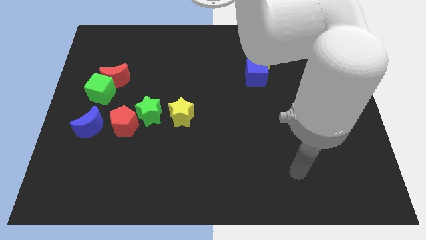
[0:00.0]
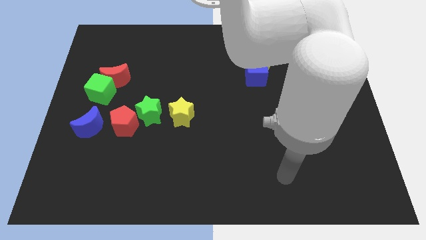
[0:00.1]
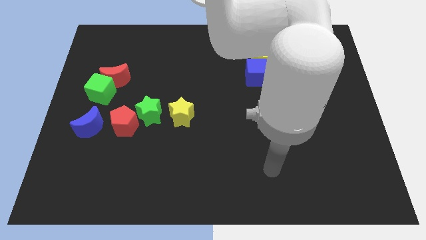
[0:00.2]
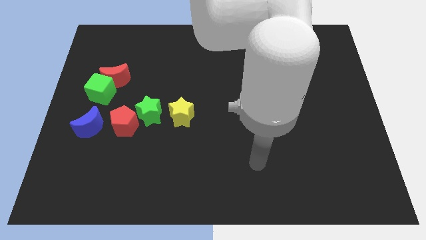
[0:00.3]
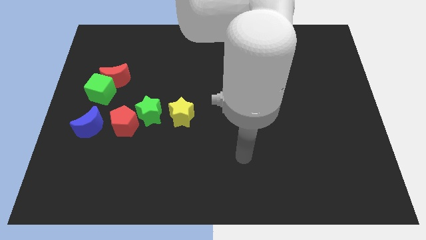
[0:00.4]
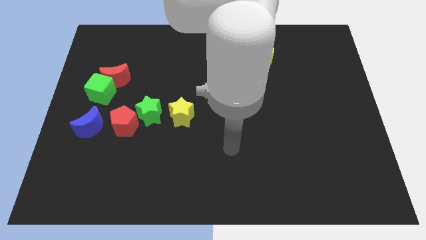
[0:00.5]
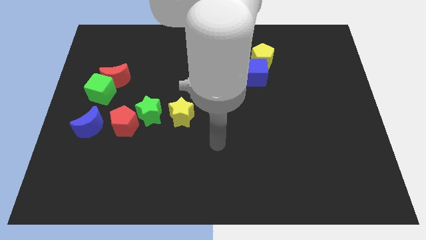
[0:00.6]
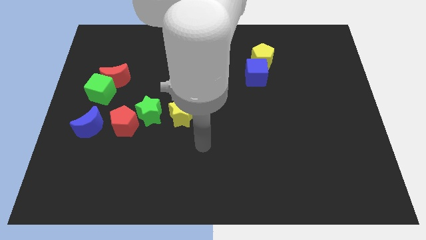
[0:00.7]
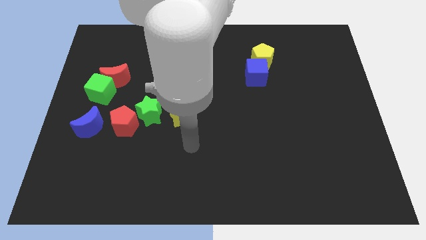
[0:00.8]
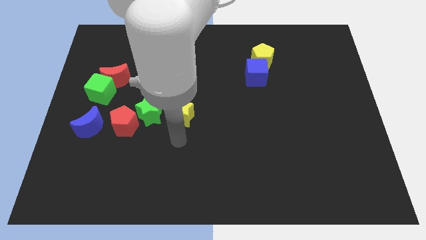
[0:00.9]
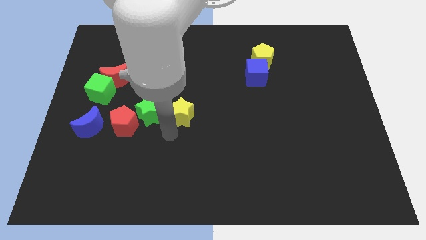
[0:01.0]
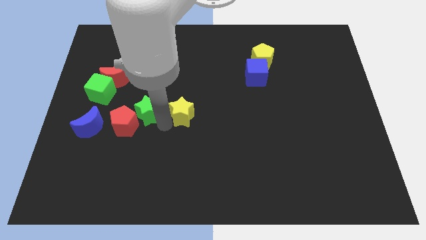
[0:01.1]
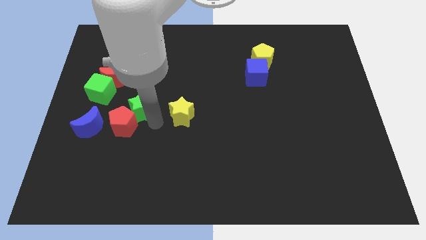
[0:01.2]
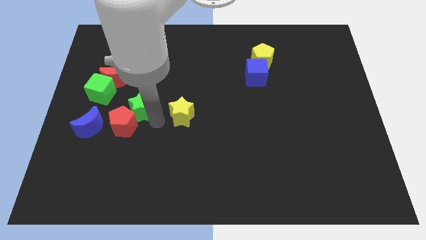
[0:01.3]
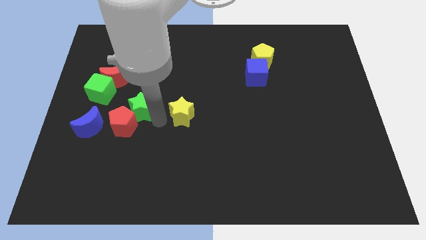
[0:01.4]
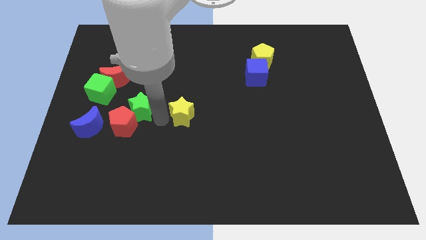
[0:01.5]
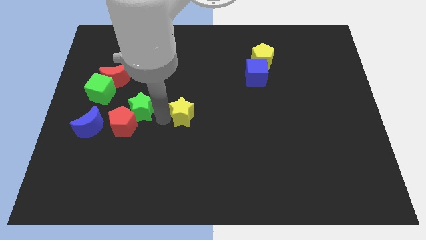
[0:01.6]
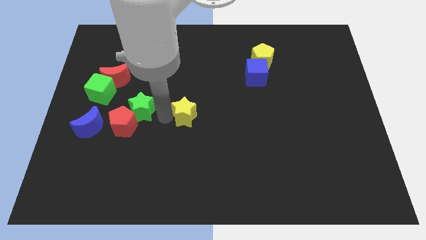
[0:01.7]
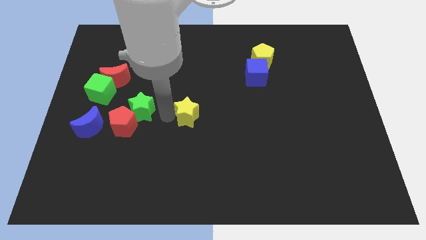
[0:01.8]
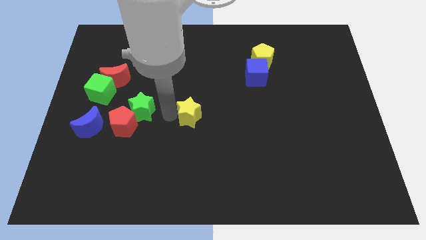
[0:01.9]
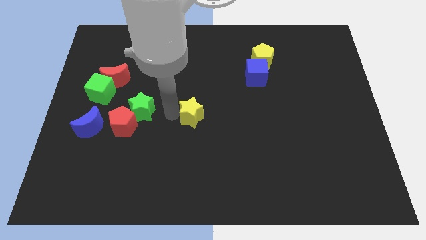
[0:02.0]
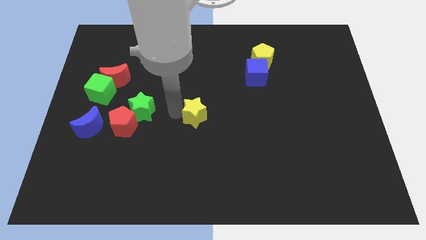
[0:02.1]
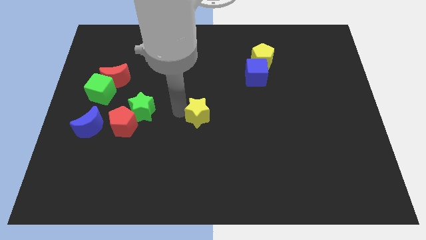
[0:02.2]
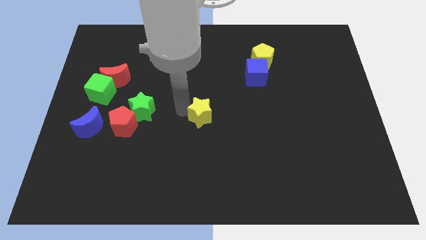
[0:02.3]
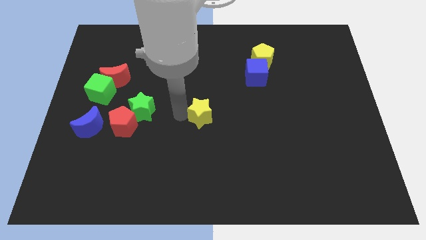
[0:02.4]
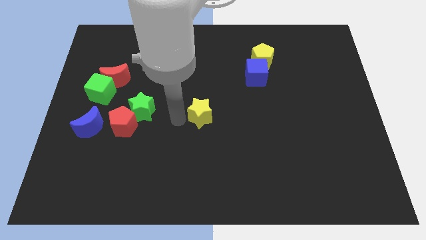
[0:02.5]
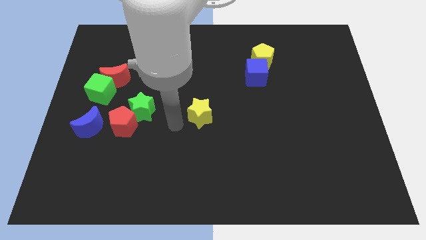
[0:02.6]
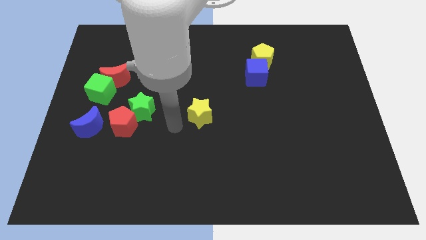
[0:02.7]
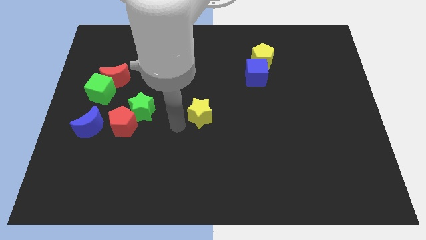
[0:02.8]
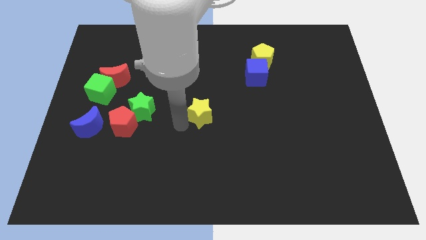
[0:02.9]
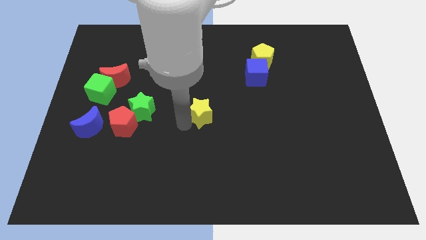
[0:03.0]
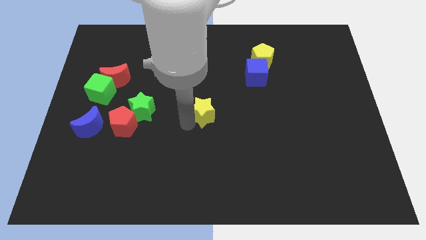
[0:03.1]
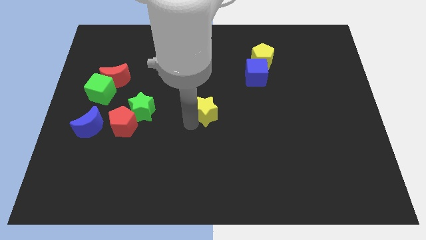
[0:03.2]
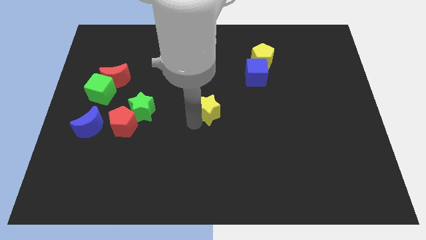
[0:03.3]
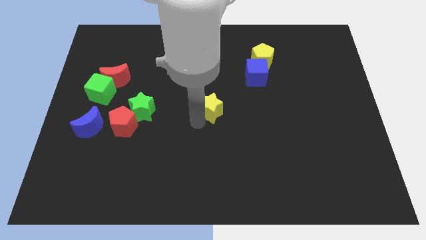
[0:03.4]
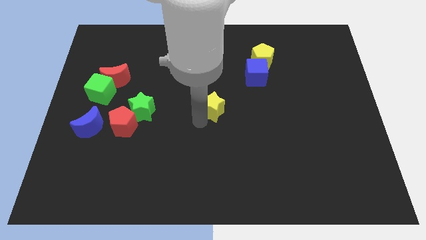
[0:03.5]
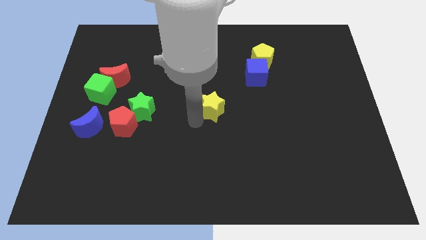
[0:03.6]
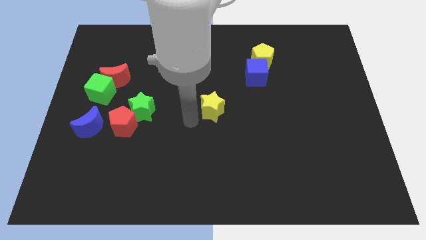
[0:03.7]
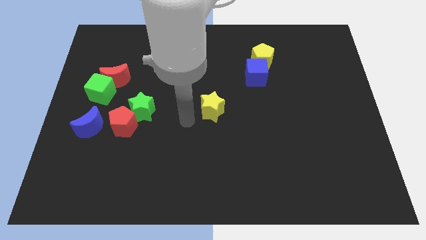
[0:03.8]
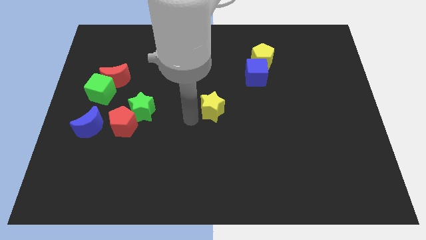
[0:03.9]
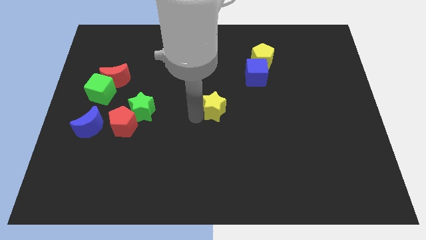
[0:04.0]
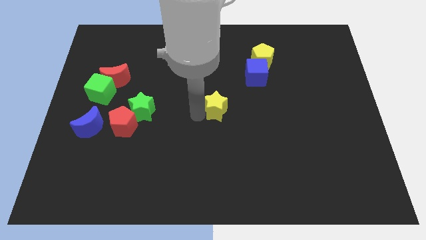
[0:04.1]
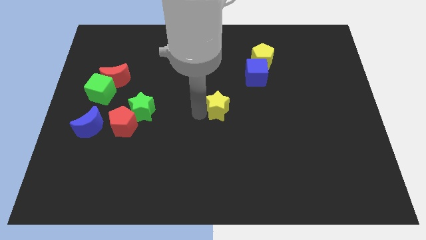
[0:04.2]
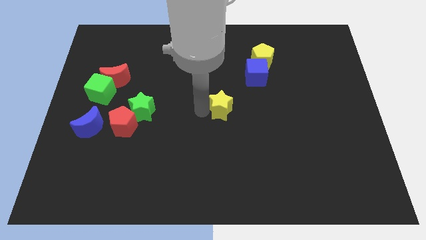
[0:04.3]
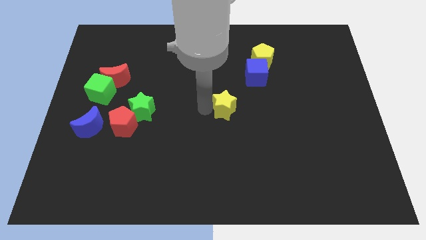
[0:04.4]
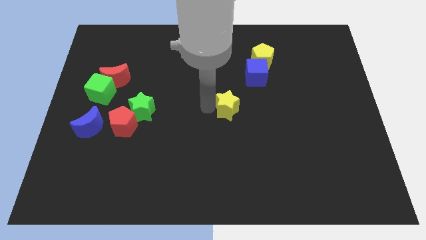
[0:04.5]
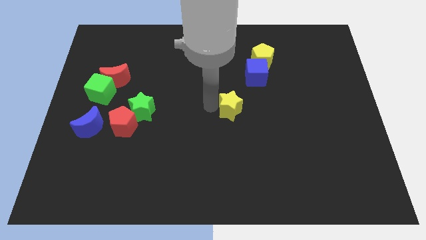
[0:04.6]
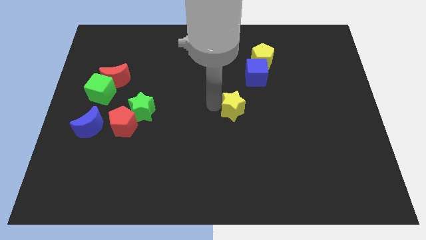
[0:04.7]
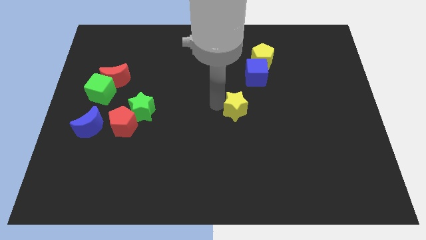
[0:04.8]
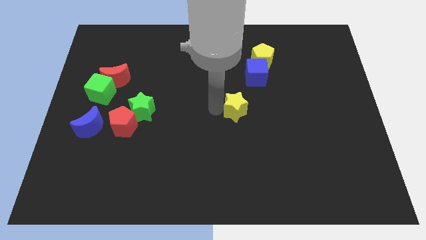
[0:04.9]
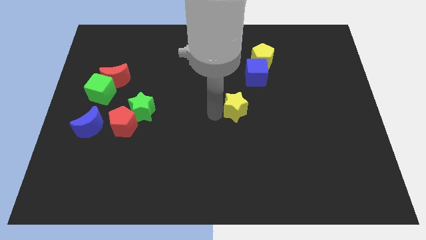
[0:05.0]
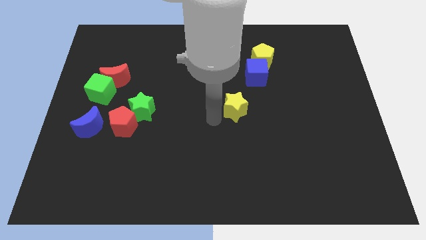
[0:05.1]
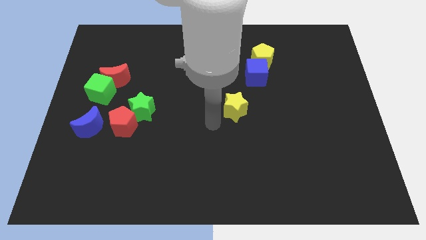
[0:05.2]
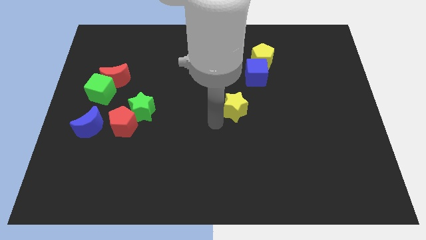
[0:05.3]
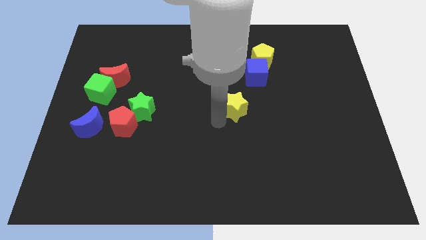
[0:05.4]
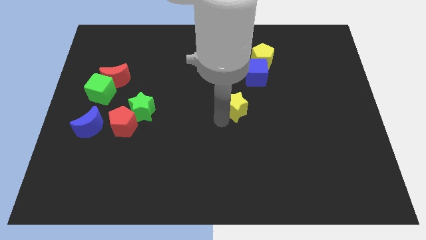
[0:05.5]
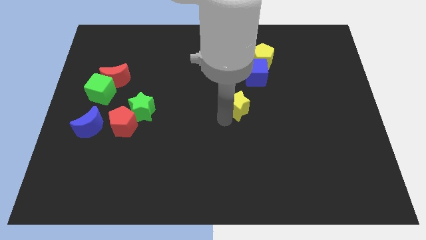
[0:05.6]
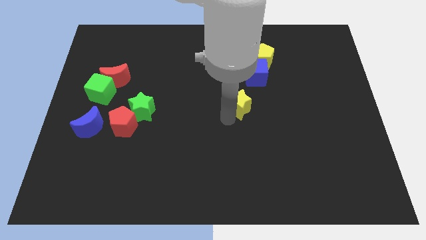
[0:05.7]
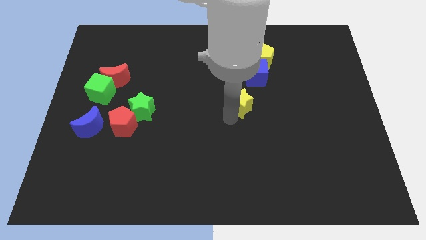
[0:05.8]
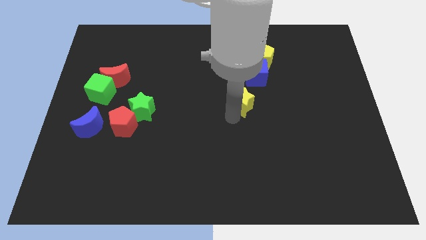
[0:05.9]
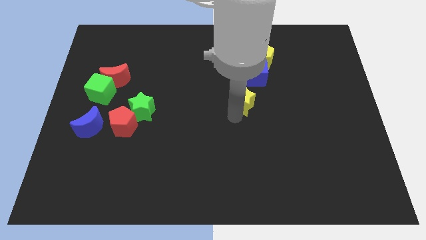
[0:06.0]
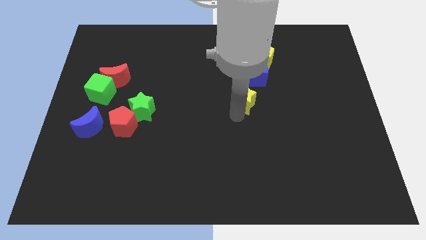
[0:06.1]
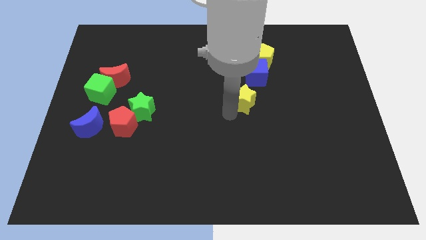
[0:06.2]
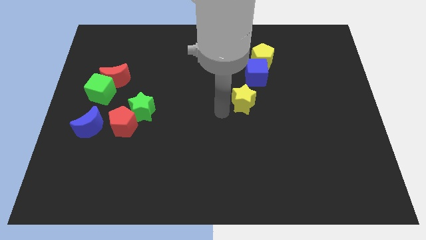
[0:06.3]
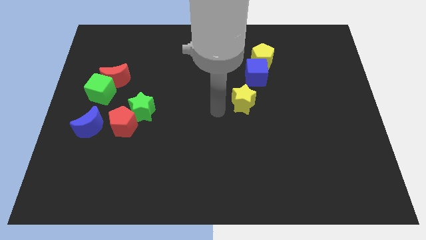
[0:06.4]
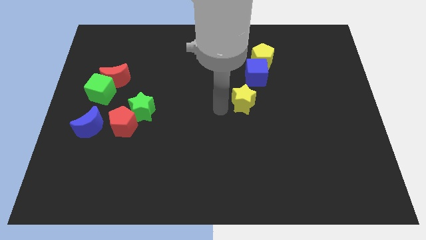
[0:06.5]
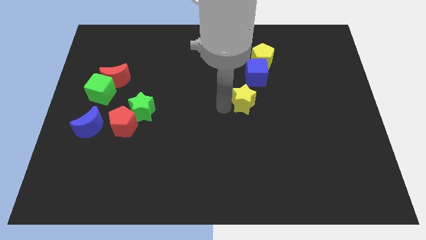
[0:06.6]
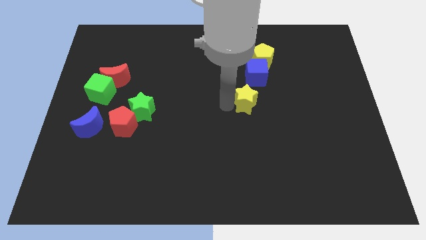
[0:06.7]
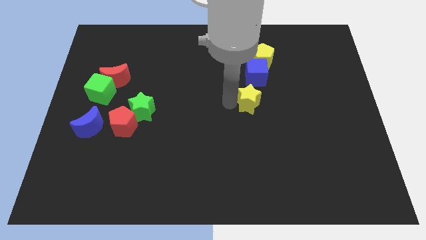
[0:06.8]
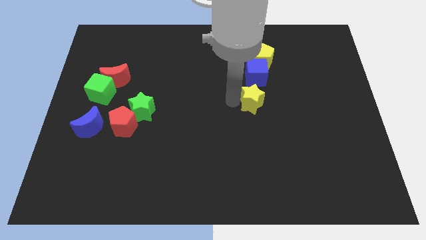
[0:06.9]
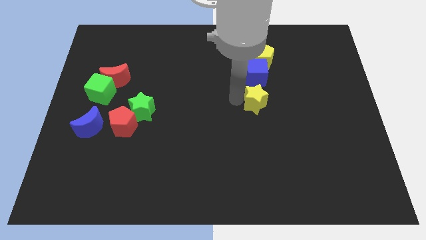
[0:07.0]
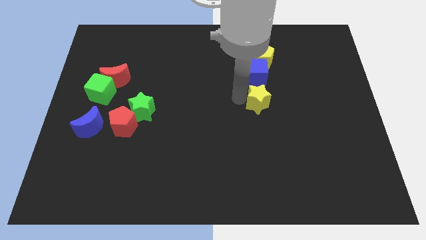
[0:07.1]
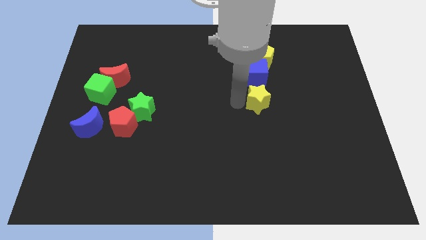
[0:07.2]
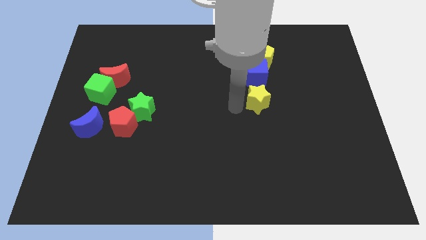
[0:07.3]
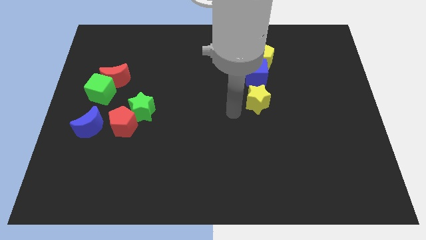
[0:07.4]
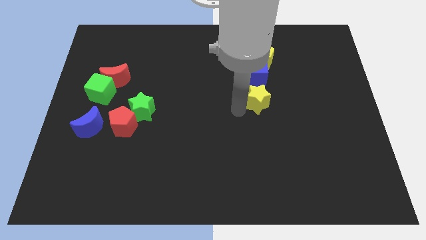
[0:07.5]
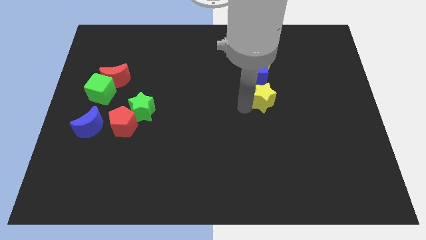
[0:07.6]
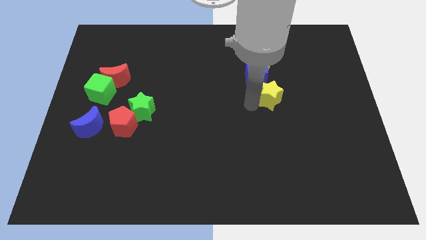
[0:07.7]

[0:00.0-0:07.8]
push the yellow star diagonally down and to the right of the blue cube

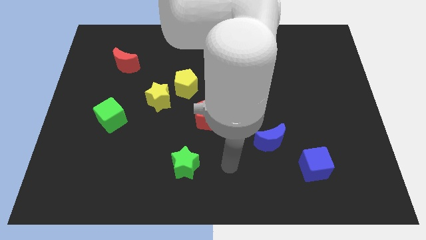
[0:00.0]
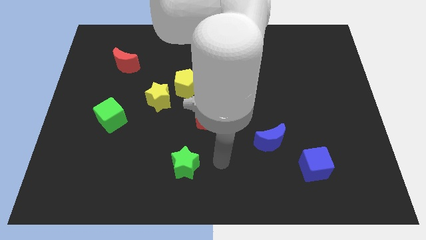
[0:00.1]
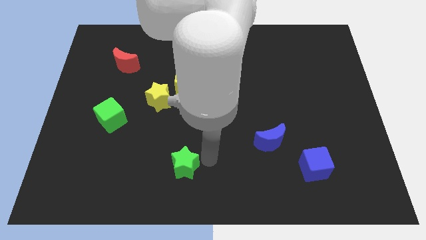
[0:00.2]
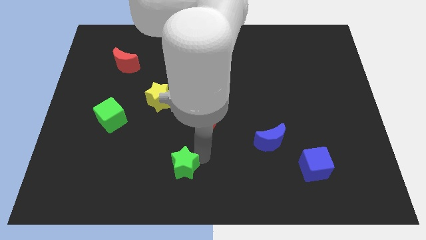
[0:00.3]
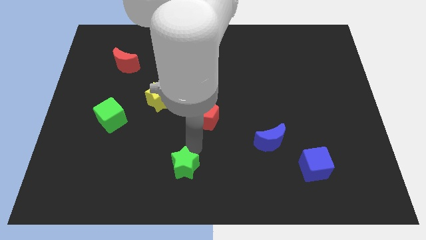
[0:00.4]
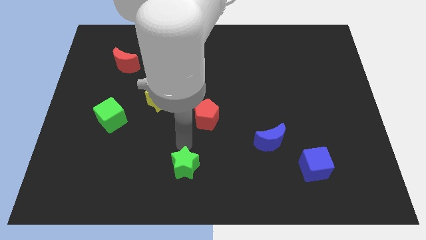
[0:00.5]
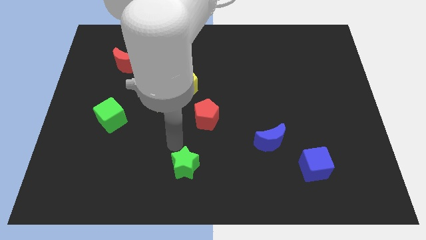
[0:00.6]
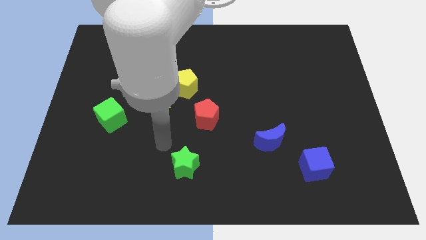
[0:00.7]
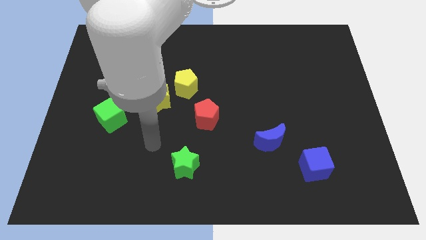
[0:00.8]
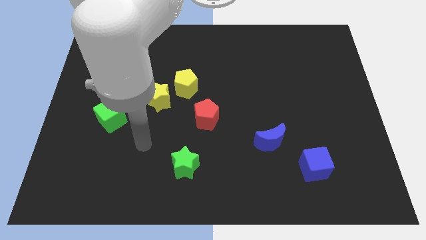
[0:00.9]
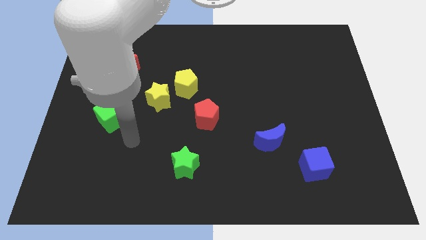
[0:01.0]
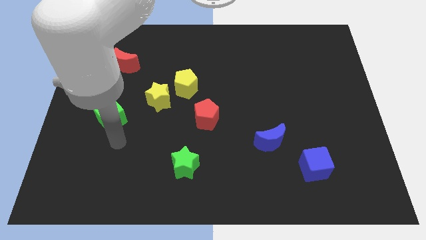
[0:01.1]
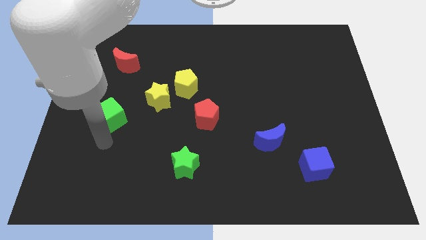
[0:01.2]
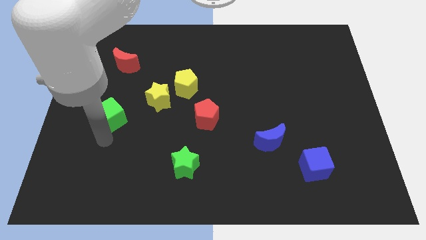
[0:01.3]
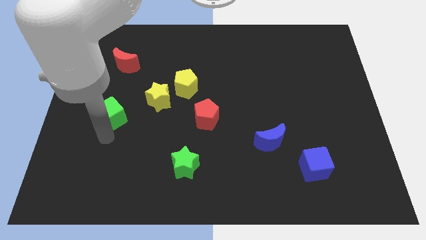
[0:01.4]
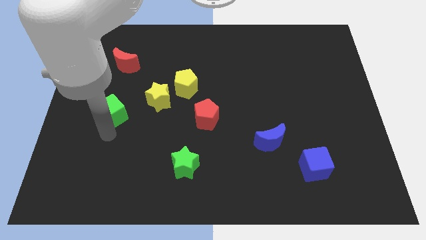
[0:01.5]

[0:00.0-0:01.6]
move the green cube to the bottom of the red moon
